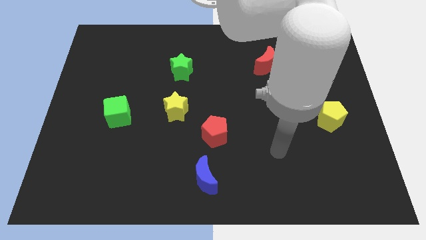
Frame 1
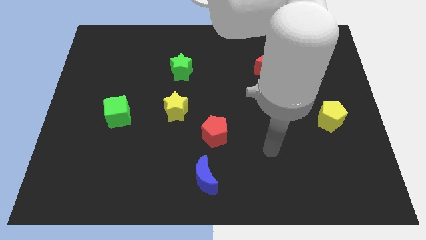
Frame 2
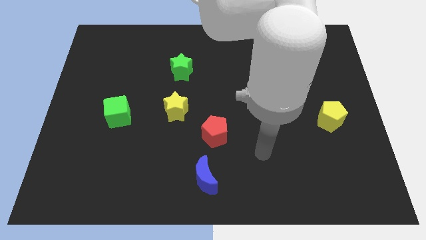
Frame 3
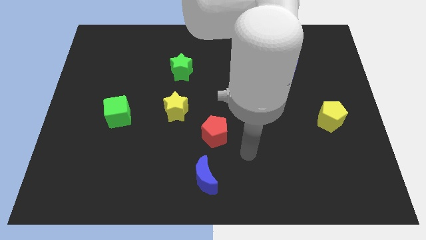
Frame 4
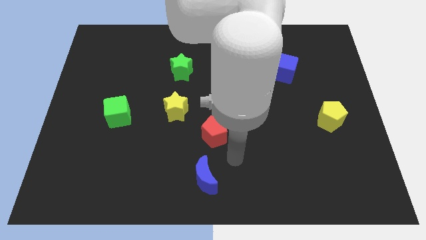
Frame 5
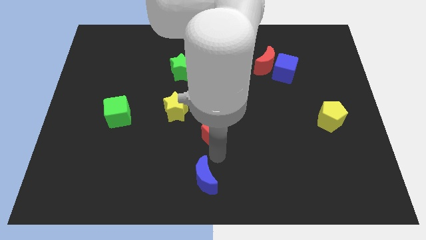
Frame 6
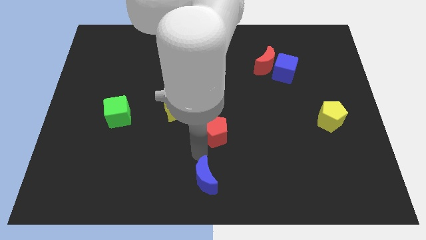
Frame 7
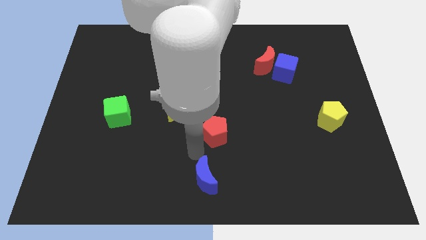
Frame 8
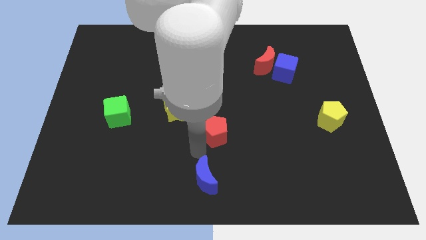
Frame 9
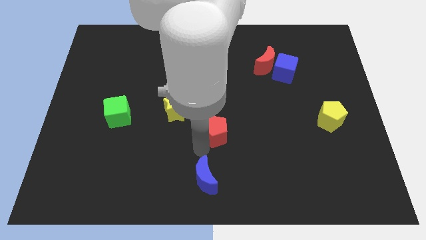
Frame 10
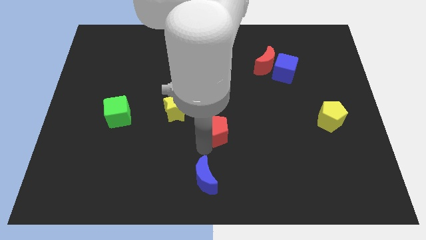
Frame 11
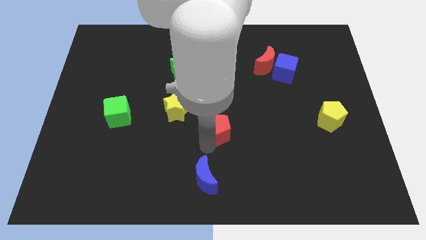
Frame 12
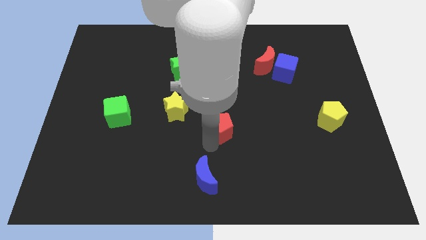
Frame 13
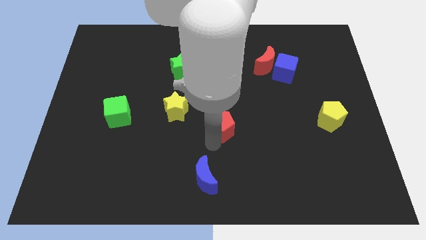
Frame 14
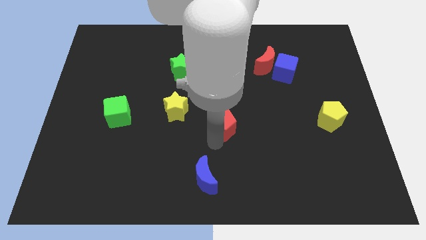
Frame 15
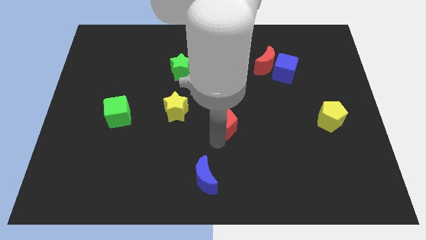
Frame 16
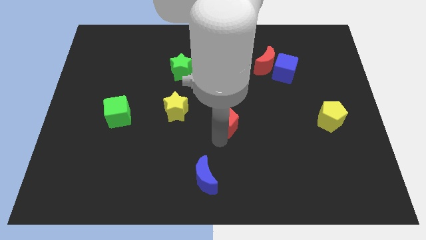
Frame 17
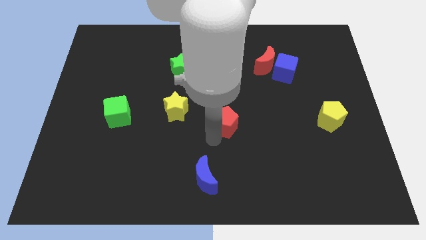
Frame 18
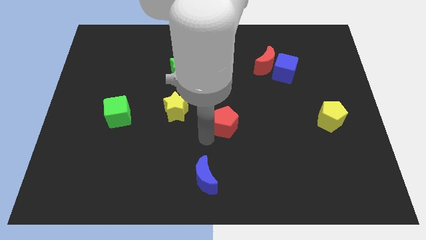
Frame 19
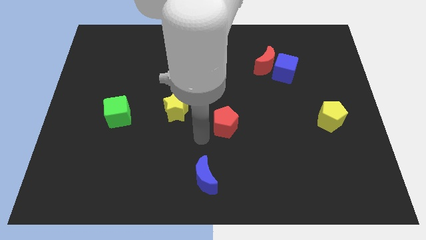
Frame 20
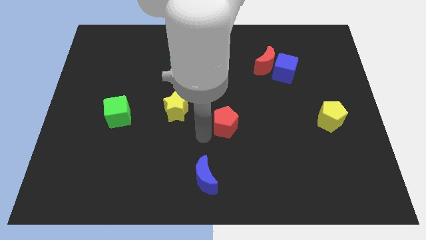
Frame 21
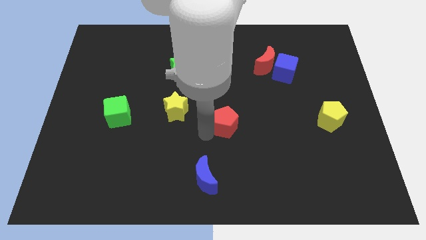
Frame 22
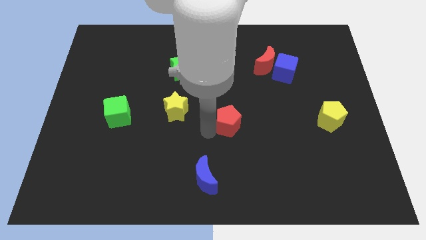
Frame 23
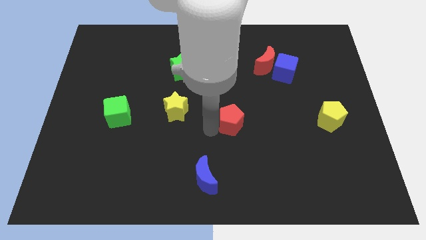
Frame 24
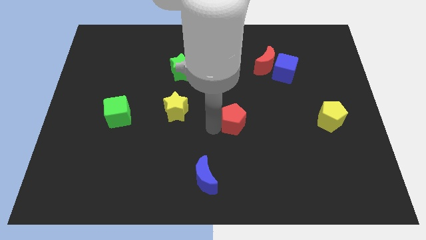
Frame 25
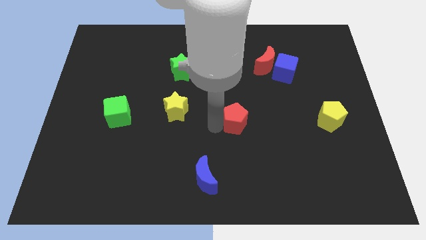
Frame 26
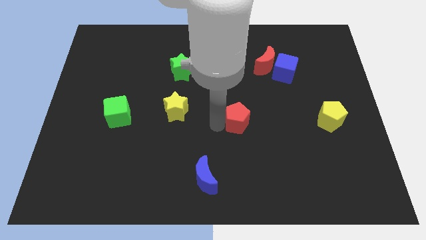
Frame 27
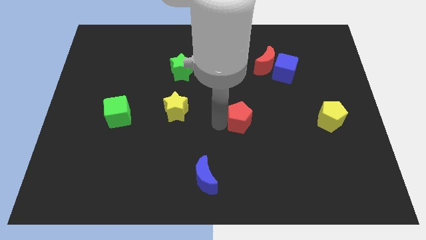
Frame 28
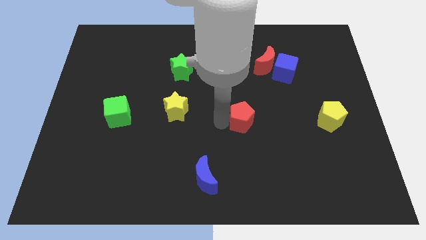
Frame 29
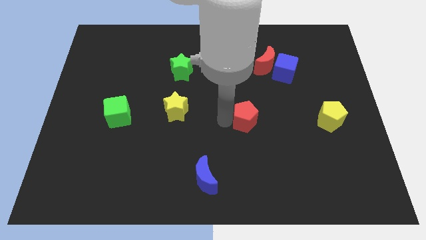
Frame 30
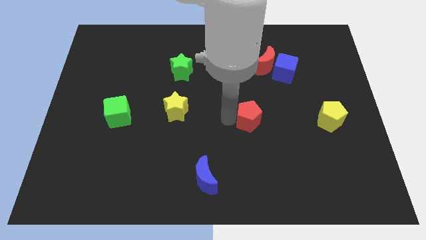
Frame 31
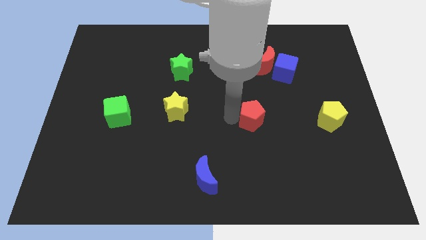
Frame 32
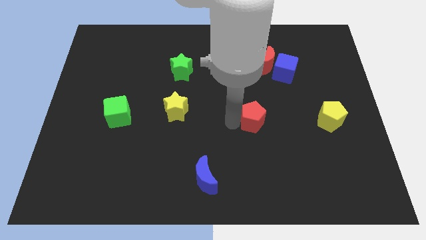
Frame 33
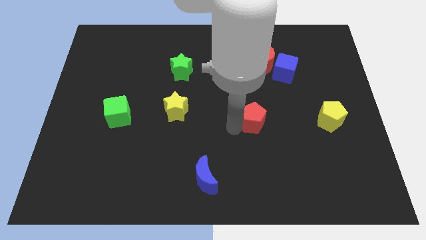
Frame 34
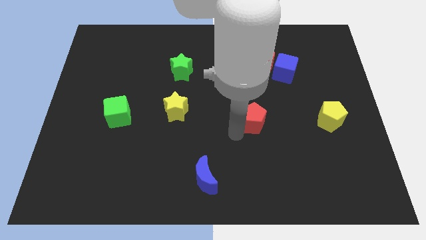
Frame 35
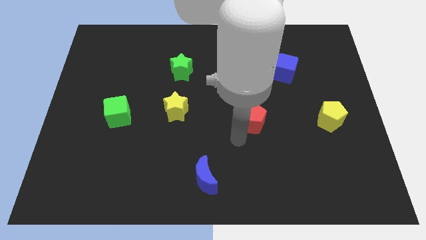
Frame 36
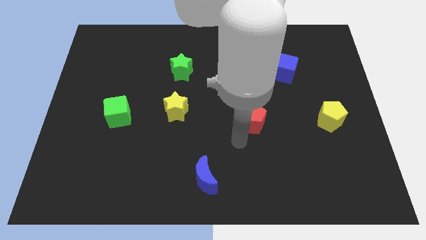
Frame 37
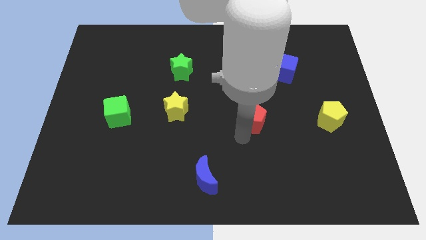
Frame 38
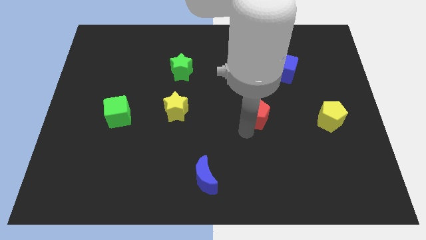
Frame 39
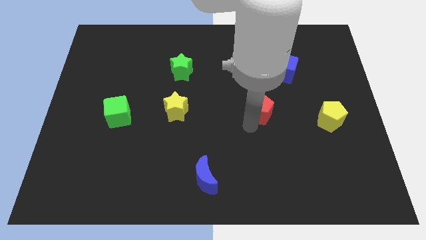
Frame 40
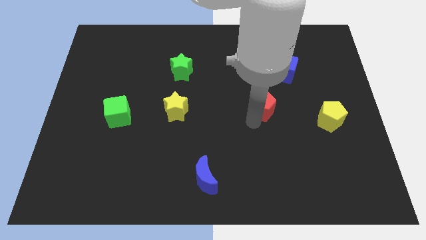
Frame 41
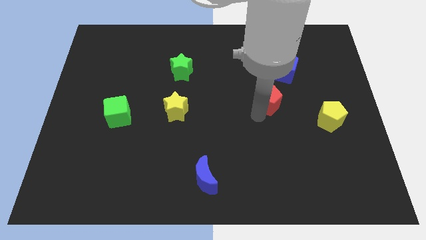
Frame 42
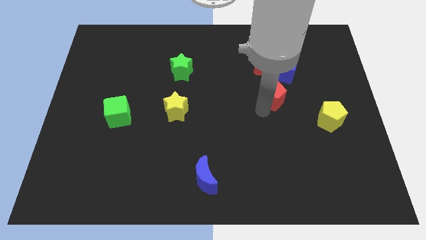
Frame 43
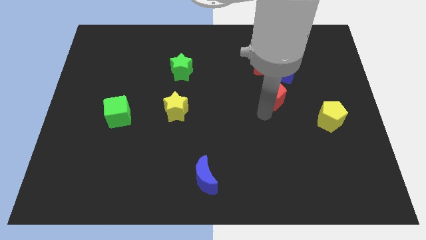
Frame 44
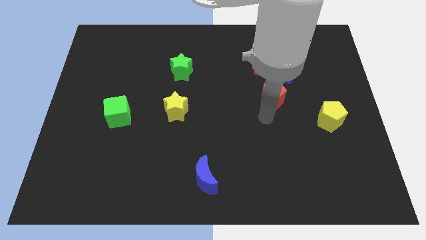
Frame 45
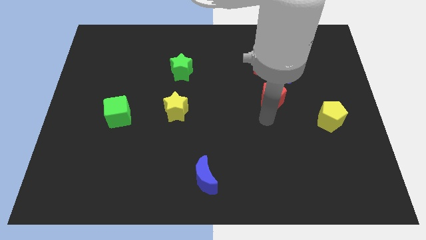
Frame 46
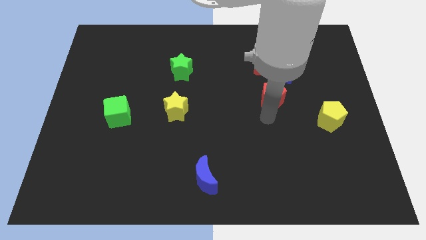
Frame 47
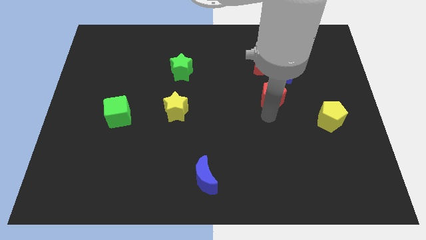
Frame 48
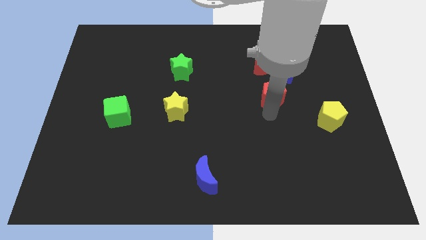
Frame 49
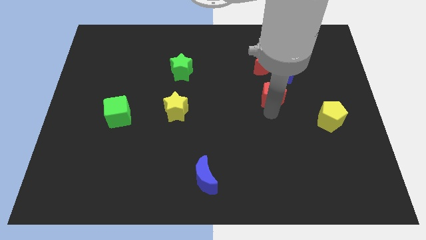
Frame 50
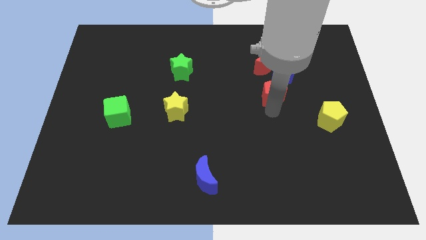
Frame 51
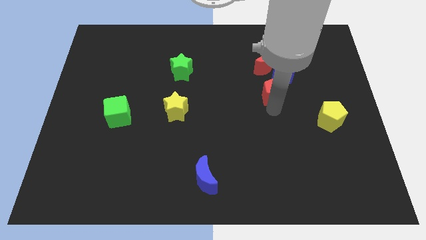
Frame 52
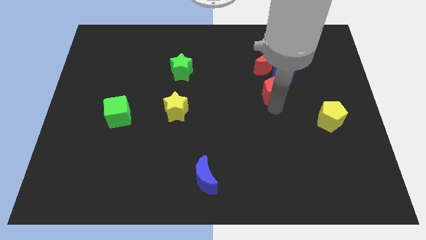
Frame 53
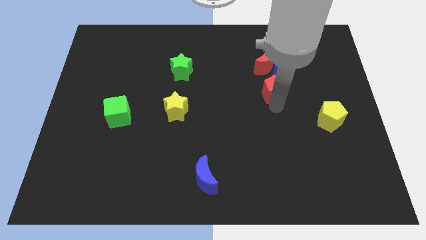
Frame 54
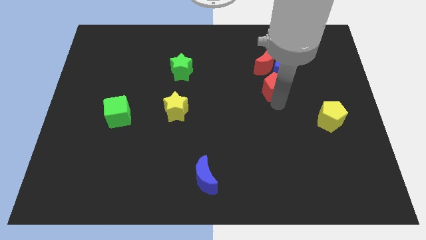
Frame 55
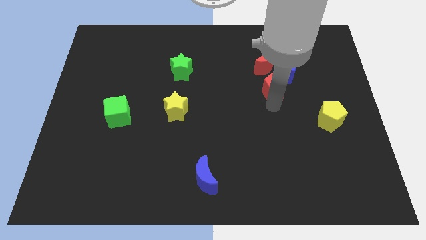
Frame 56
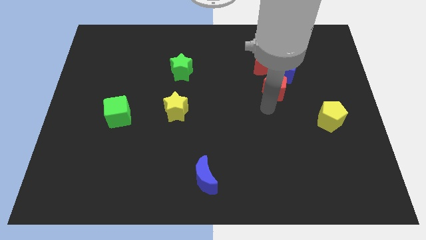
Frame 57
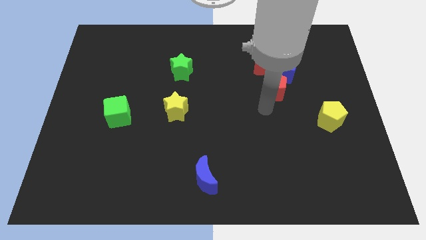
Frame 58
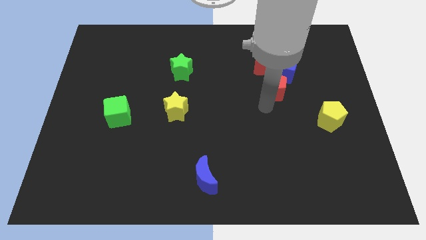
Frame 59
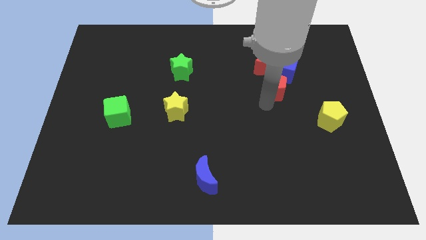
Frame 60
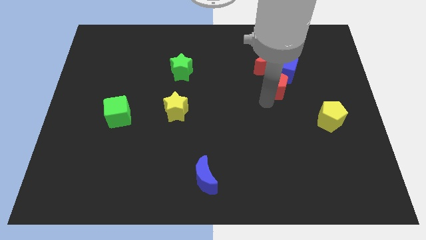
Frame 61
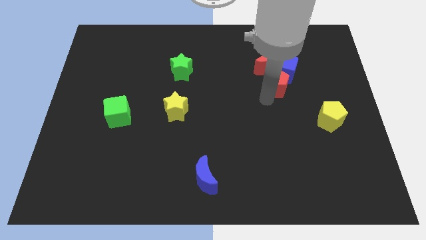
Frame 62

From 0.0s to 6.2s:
put the red pentagon towards the blue cube

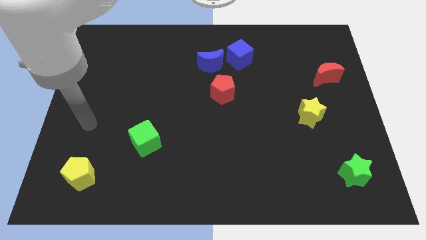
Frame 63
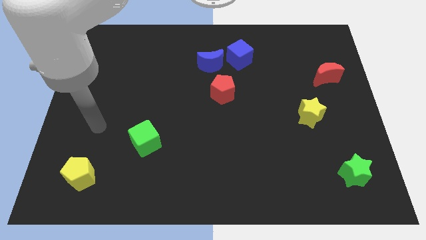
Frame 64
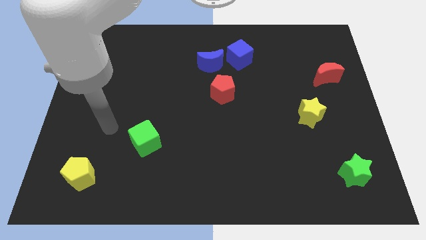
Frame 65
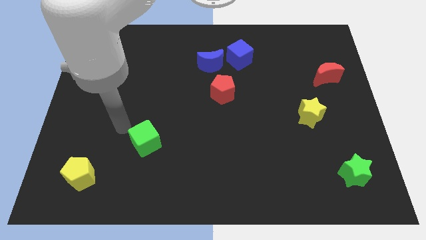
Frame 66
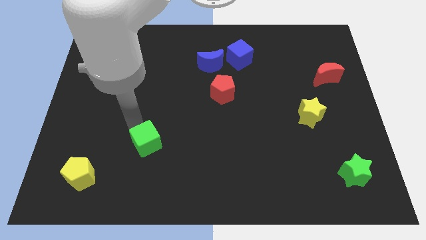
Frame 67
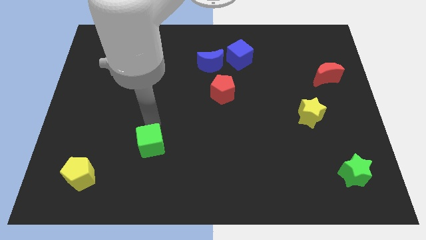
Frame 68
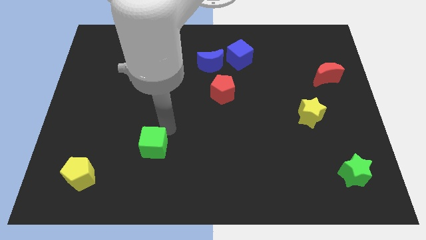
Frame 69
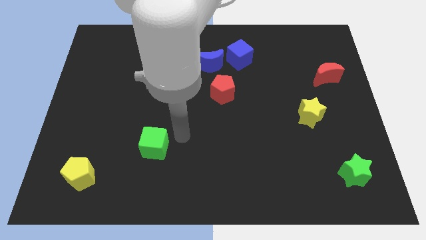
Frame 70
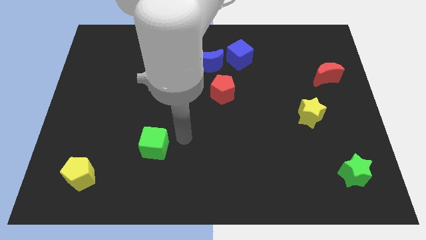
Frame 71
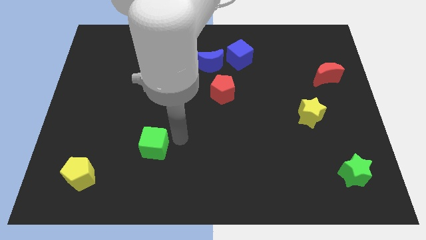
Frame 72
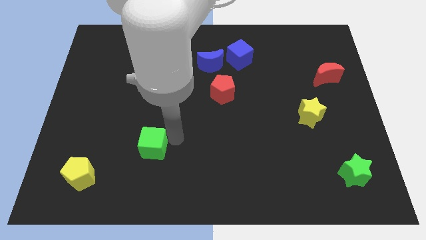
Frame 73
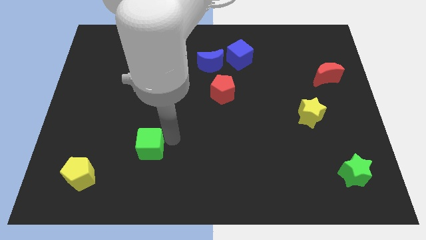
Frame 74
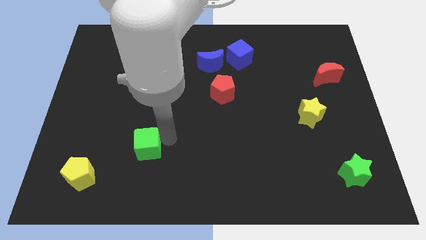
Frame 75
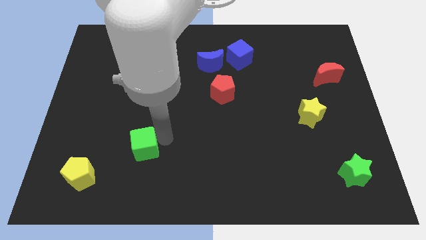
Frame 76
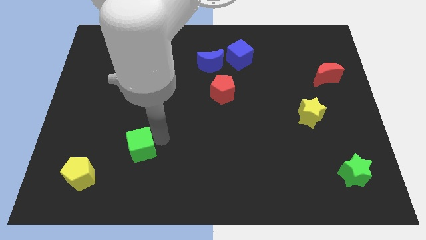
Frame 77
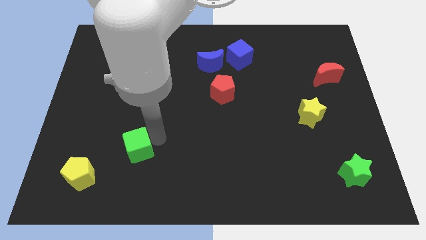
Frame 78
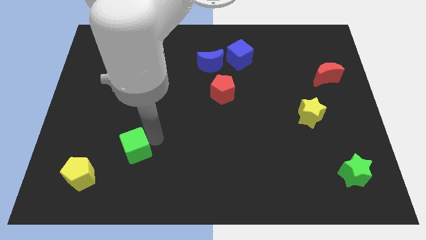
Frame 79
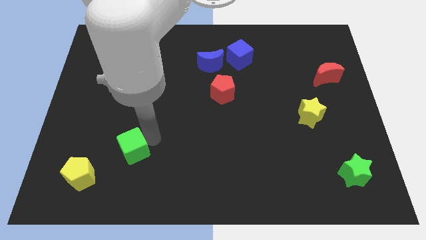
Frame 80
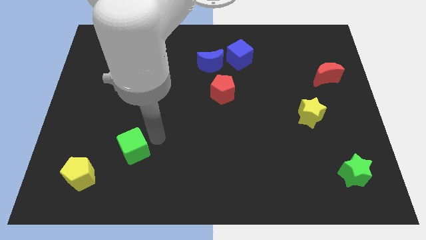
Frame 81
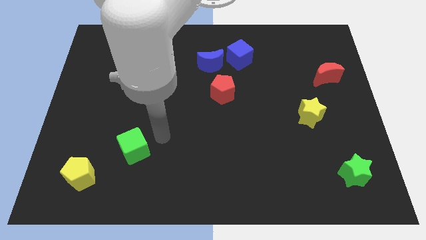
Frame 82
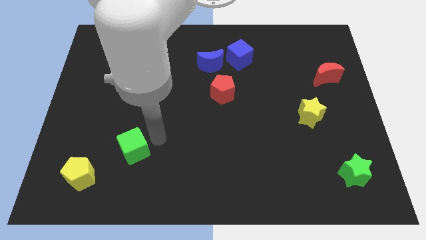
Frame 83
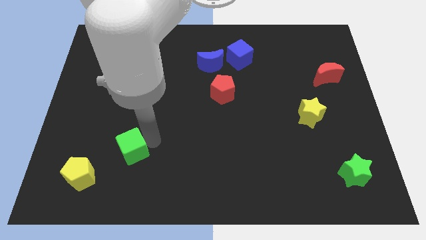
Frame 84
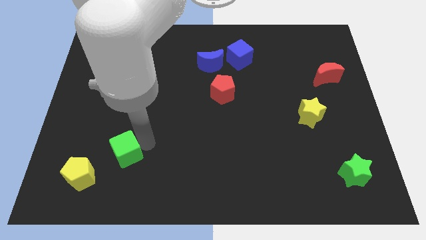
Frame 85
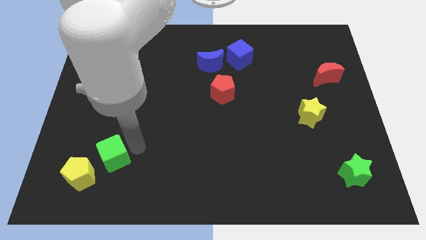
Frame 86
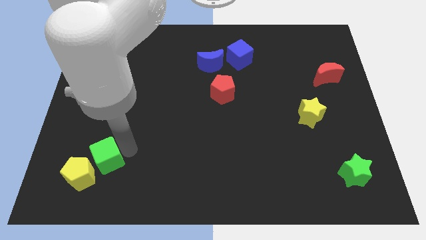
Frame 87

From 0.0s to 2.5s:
put the green cube close to the yellow pentagon
